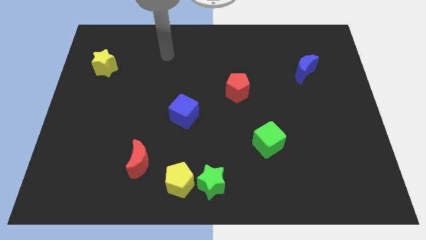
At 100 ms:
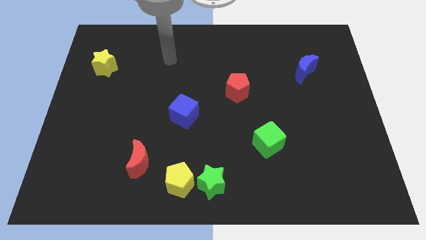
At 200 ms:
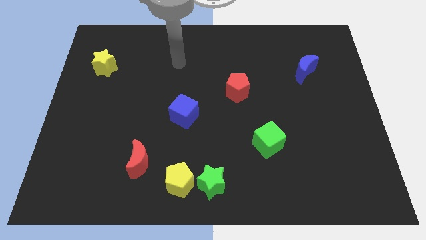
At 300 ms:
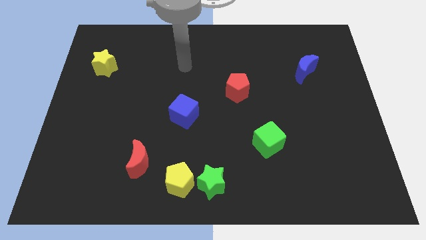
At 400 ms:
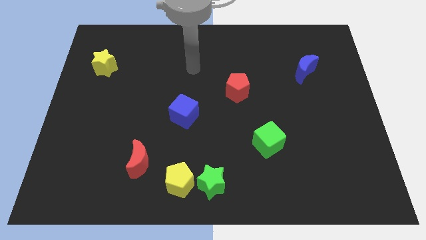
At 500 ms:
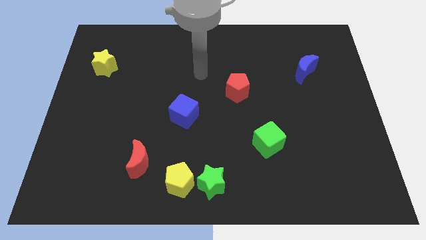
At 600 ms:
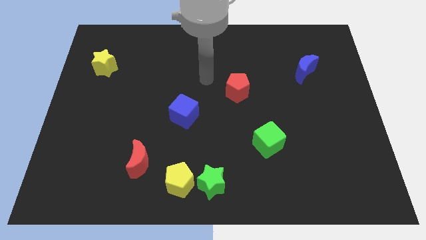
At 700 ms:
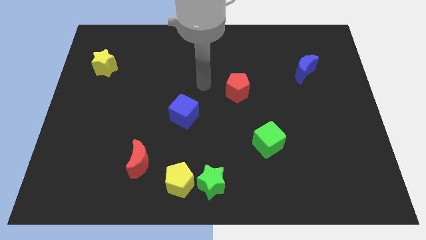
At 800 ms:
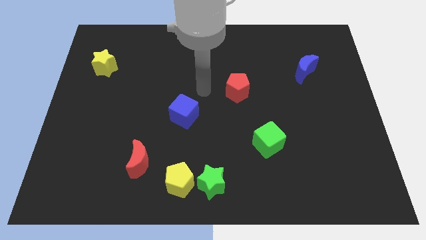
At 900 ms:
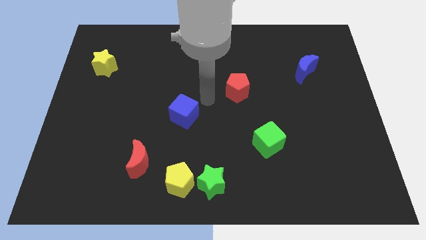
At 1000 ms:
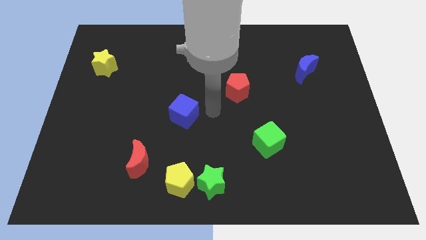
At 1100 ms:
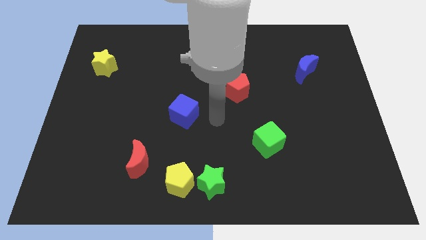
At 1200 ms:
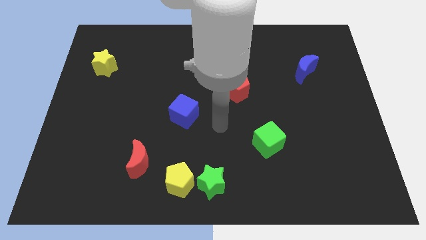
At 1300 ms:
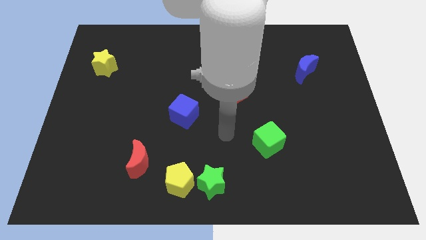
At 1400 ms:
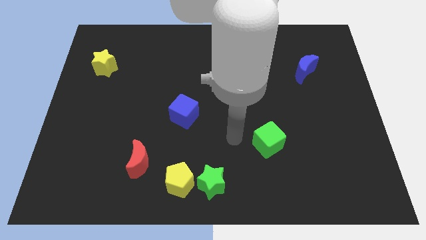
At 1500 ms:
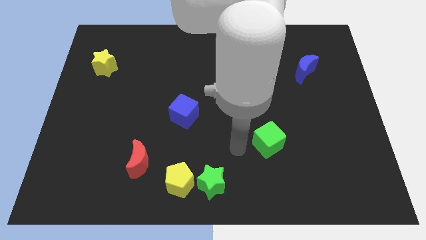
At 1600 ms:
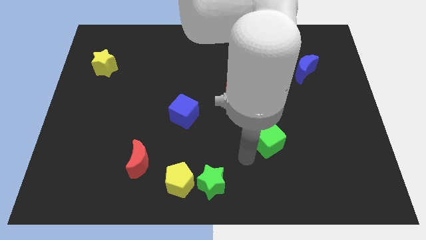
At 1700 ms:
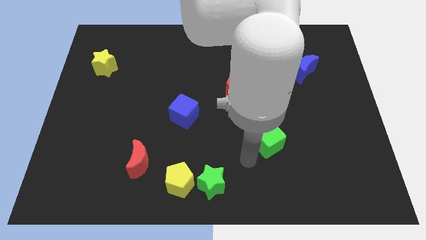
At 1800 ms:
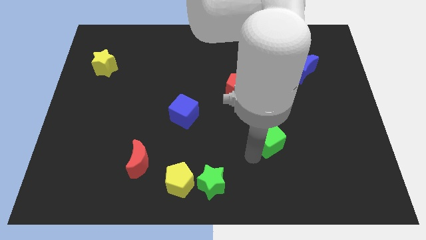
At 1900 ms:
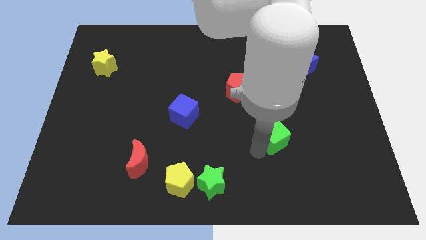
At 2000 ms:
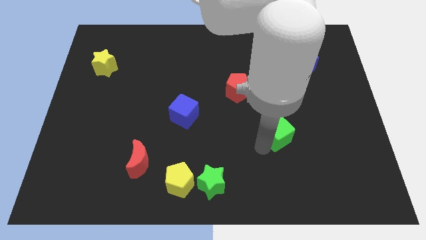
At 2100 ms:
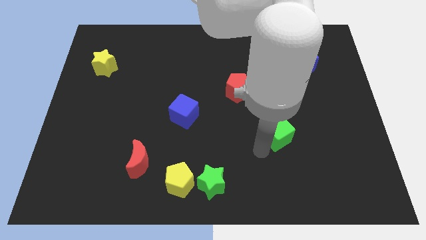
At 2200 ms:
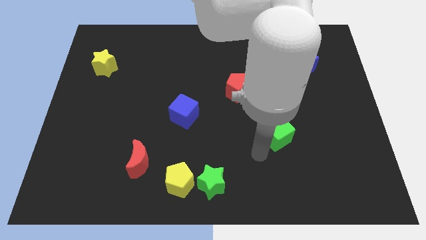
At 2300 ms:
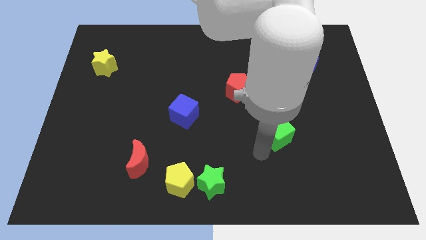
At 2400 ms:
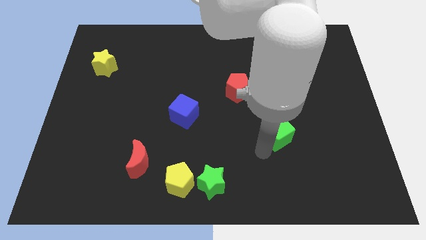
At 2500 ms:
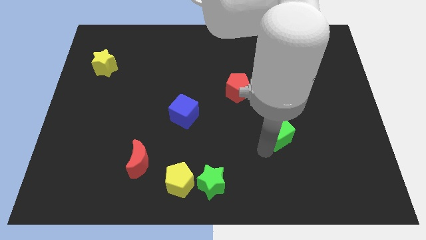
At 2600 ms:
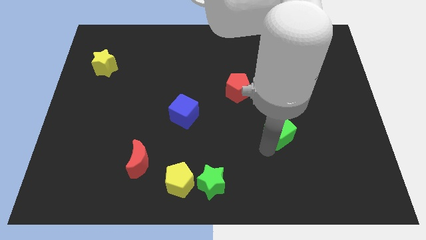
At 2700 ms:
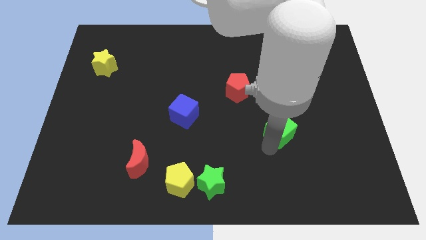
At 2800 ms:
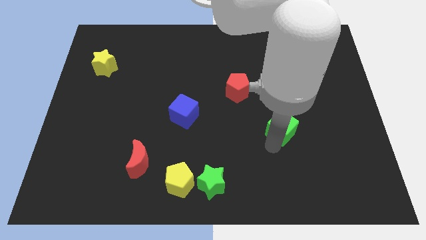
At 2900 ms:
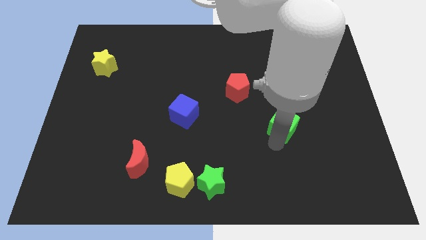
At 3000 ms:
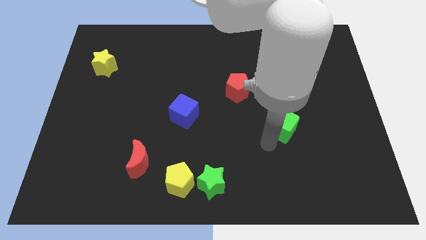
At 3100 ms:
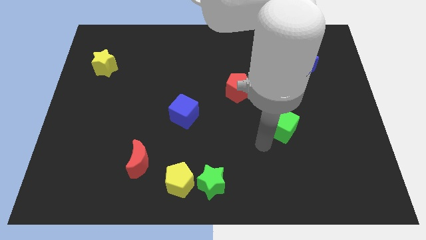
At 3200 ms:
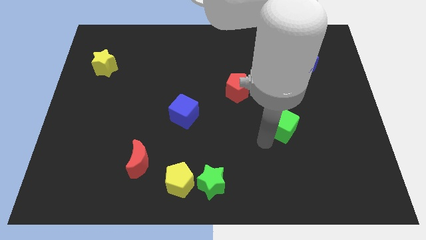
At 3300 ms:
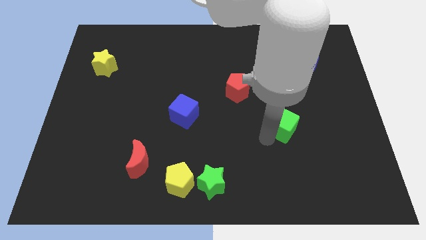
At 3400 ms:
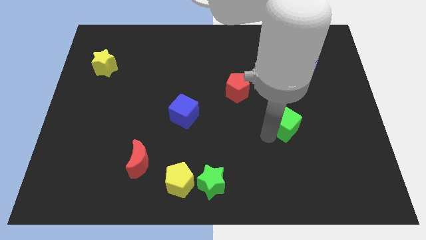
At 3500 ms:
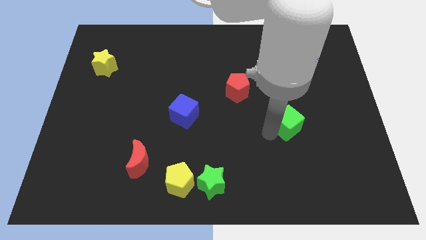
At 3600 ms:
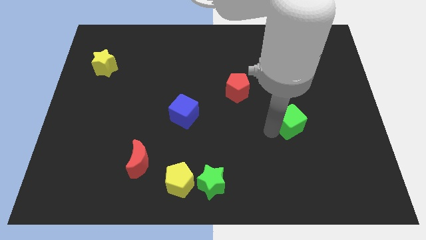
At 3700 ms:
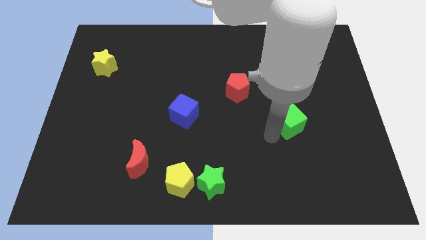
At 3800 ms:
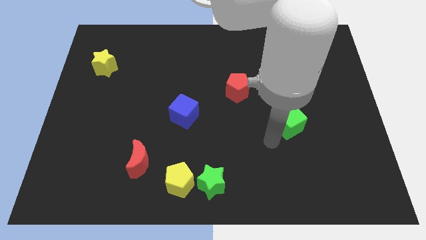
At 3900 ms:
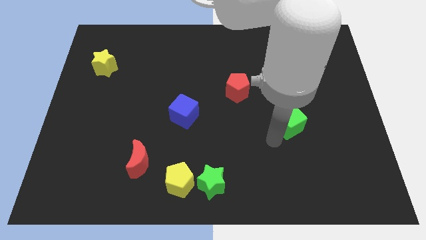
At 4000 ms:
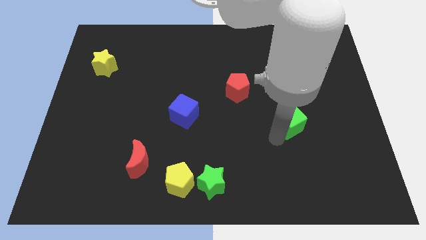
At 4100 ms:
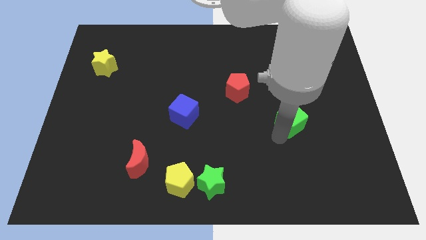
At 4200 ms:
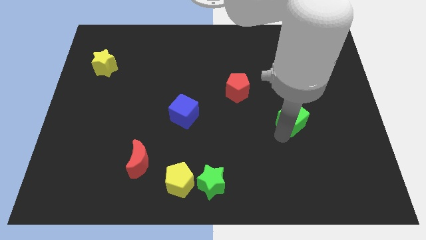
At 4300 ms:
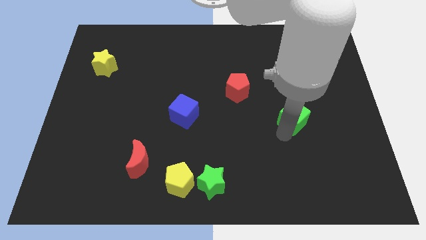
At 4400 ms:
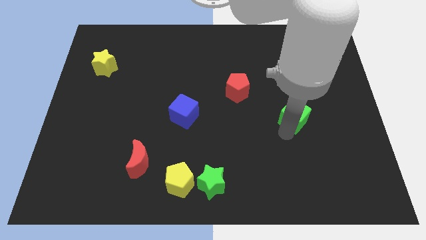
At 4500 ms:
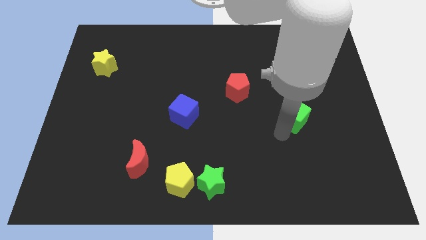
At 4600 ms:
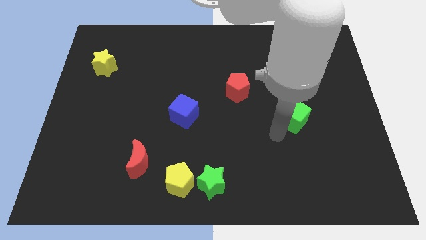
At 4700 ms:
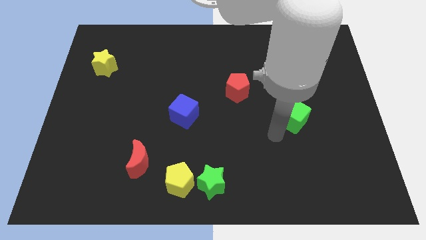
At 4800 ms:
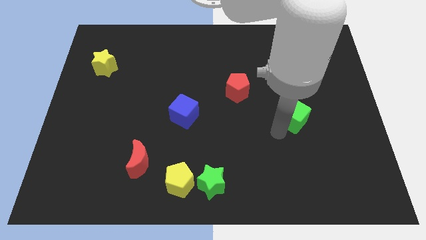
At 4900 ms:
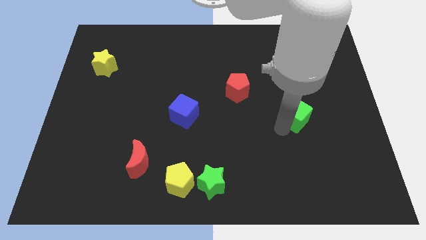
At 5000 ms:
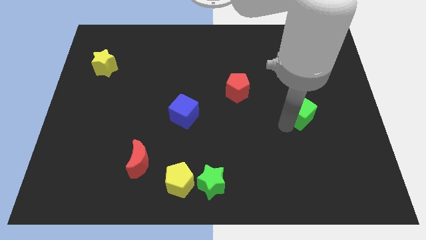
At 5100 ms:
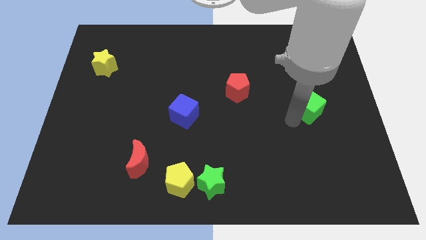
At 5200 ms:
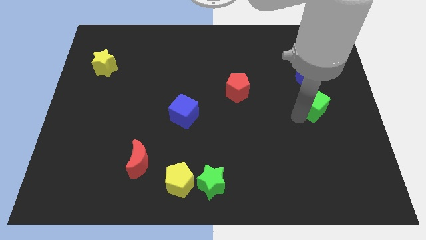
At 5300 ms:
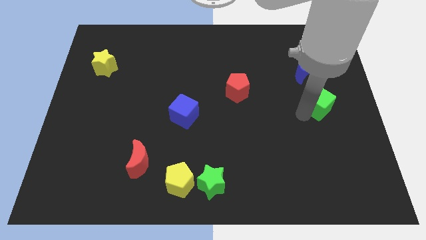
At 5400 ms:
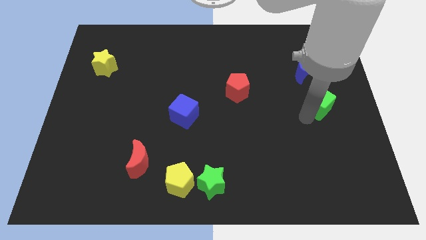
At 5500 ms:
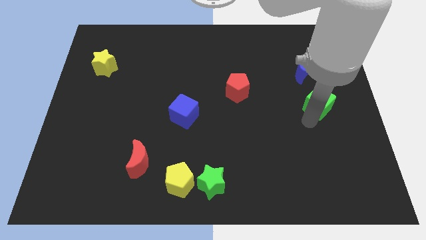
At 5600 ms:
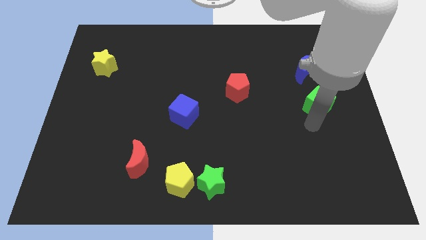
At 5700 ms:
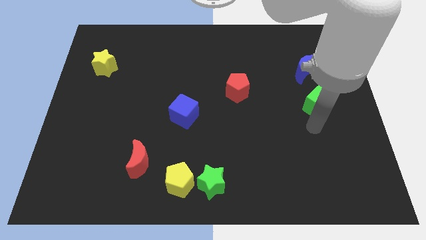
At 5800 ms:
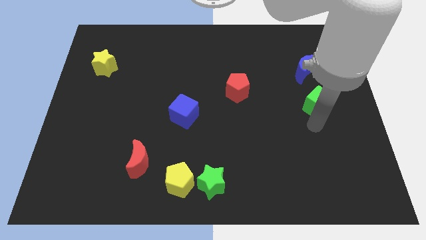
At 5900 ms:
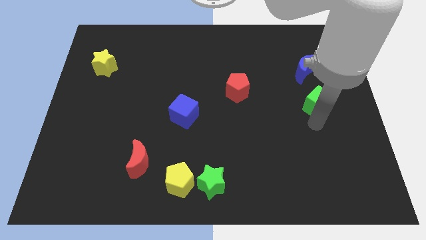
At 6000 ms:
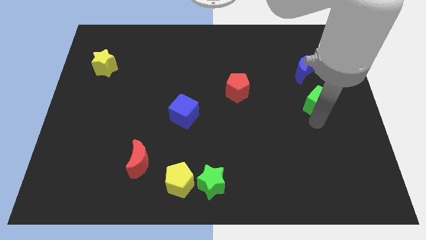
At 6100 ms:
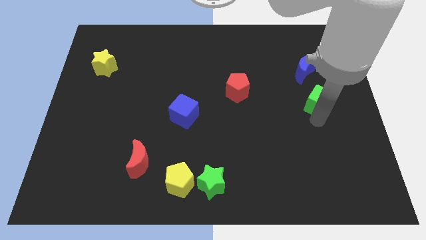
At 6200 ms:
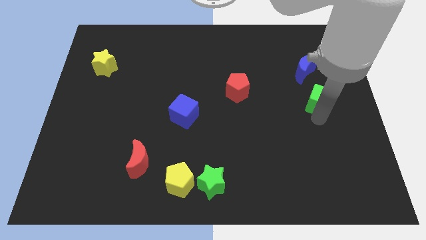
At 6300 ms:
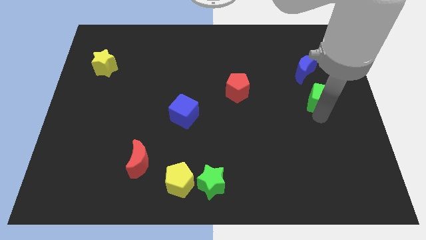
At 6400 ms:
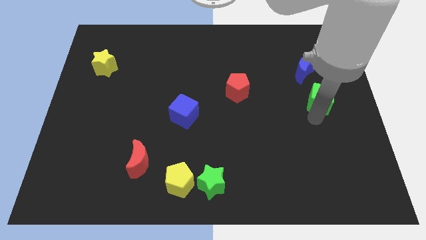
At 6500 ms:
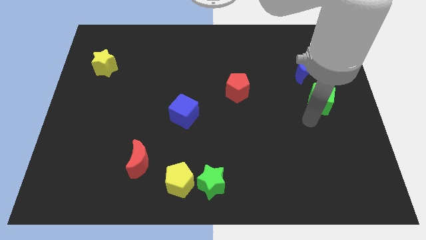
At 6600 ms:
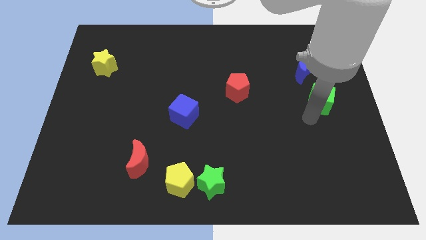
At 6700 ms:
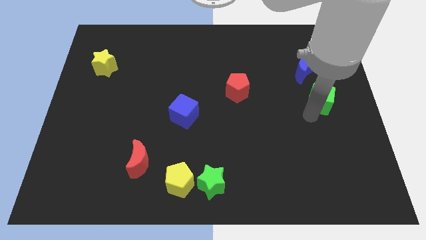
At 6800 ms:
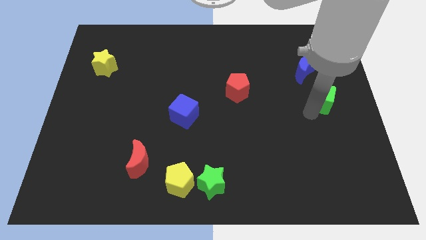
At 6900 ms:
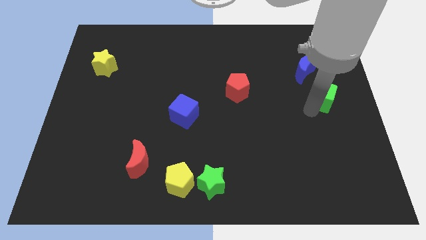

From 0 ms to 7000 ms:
put the green cube to the bottom right of the blue moon

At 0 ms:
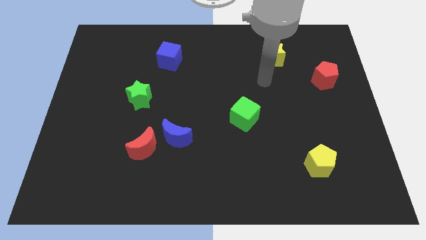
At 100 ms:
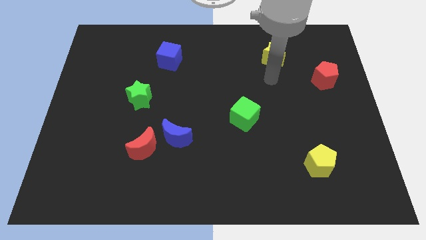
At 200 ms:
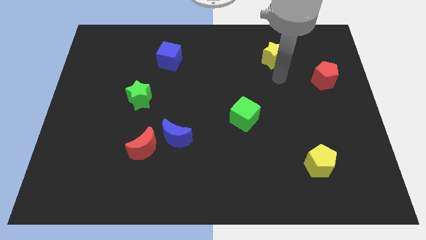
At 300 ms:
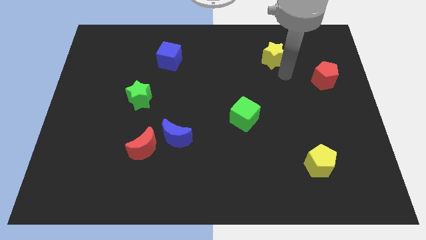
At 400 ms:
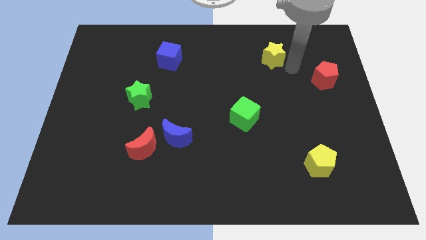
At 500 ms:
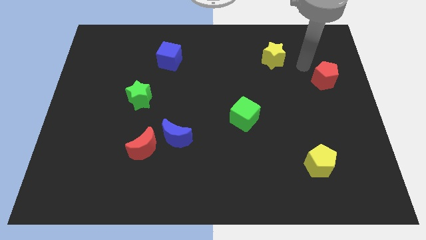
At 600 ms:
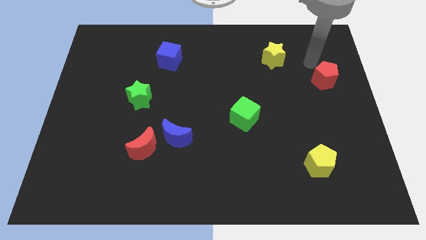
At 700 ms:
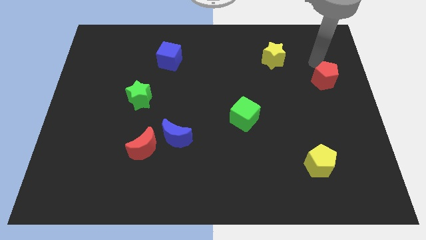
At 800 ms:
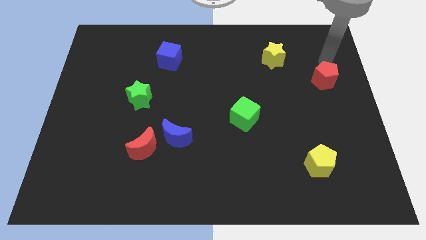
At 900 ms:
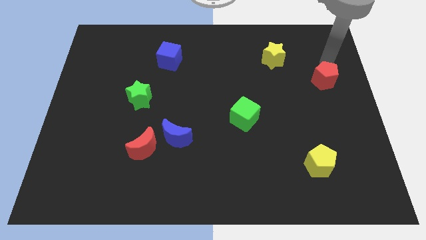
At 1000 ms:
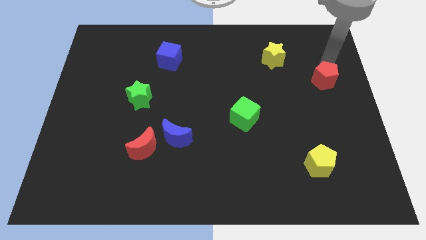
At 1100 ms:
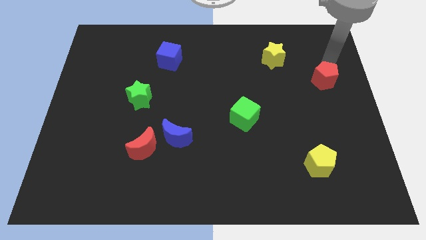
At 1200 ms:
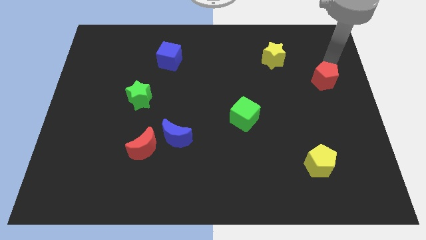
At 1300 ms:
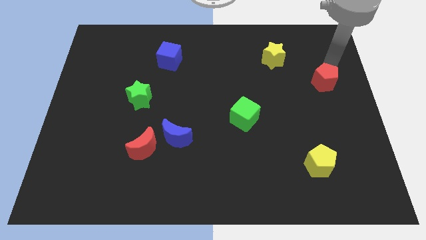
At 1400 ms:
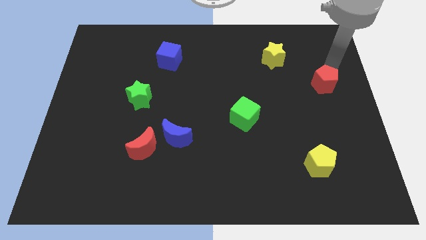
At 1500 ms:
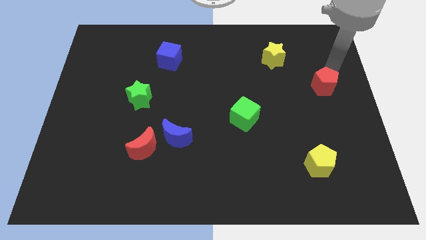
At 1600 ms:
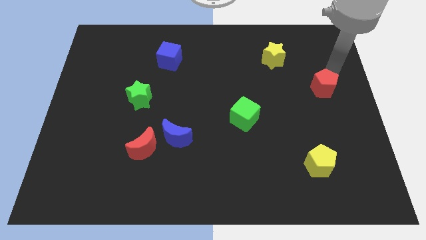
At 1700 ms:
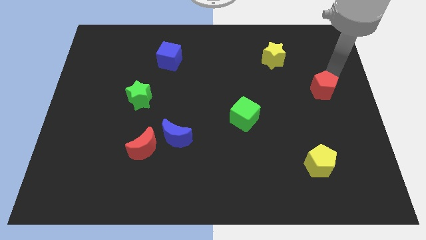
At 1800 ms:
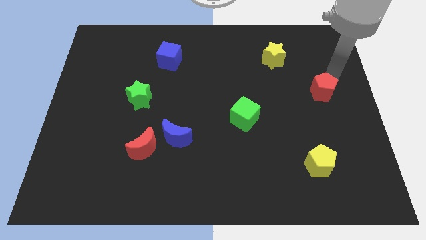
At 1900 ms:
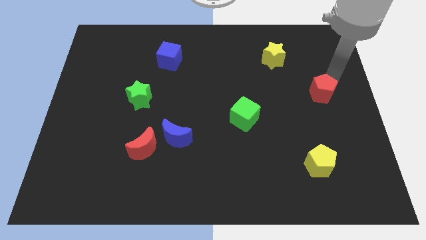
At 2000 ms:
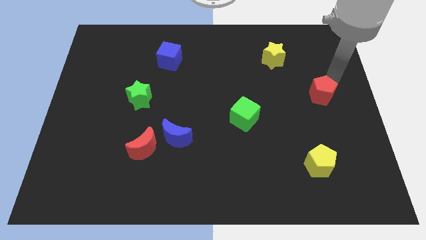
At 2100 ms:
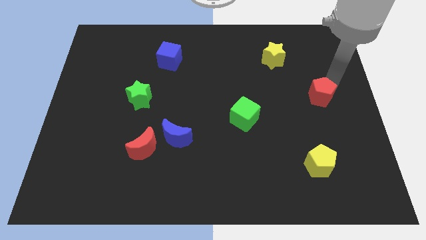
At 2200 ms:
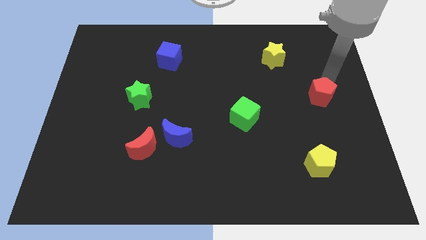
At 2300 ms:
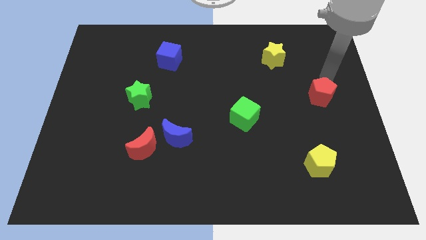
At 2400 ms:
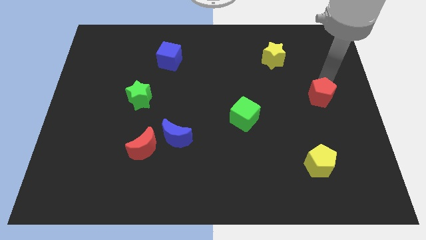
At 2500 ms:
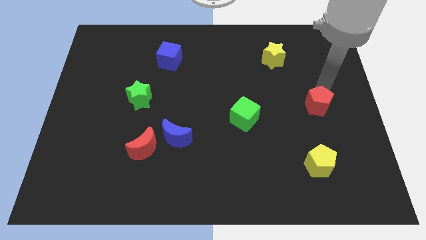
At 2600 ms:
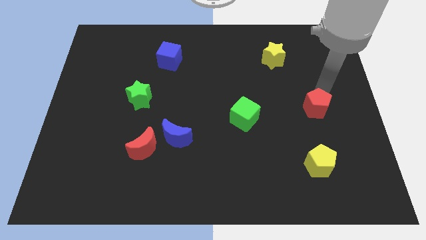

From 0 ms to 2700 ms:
slide the red pentagon to the top side of the yellow pentagon
